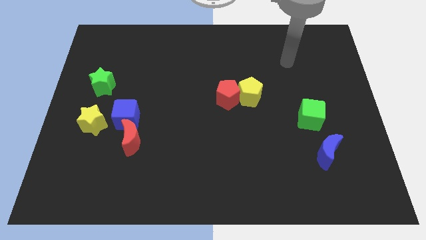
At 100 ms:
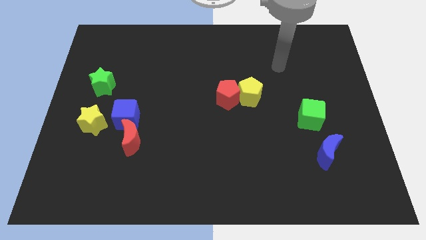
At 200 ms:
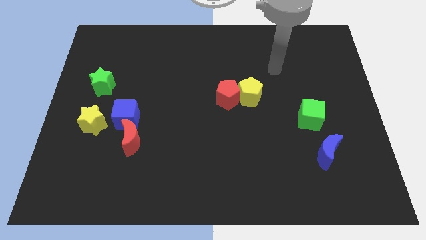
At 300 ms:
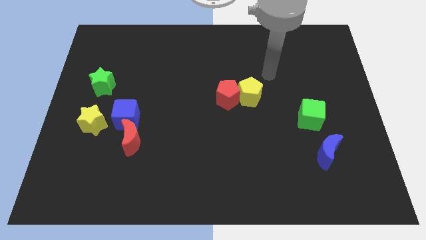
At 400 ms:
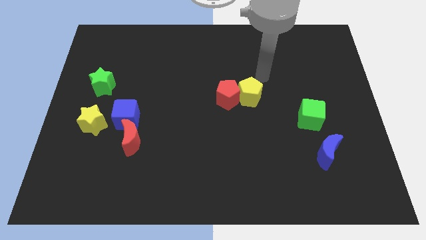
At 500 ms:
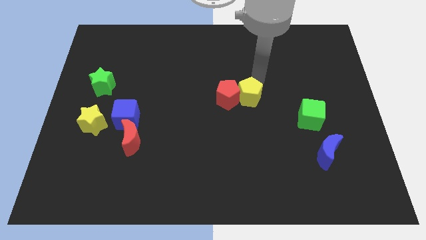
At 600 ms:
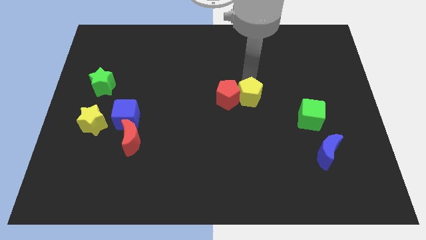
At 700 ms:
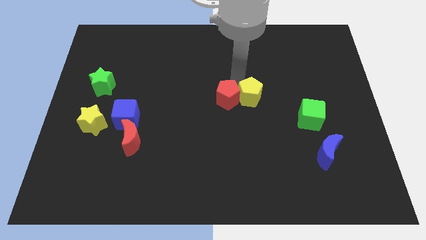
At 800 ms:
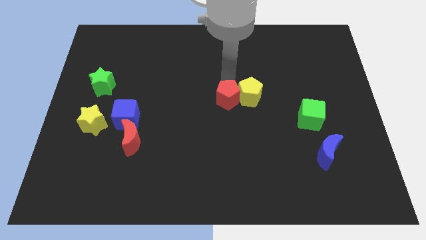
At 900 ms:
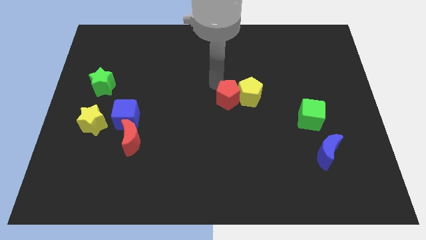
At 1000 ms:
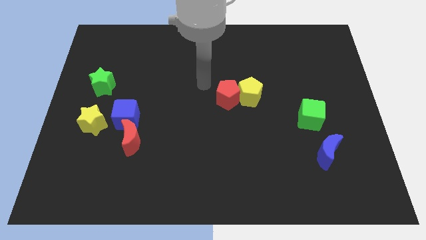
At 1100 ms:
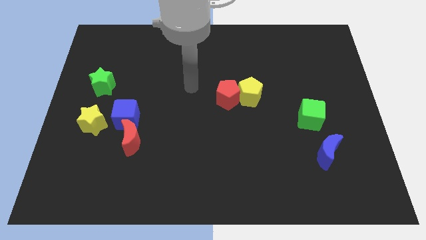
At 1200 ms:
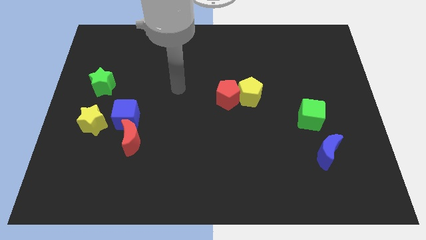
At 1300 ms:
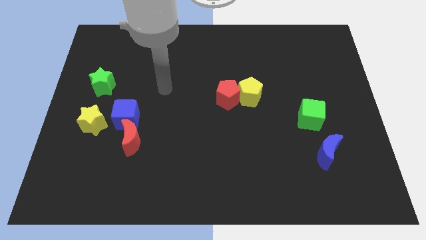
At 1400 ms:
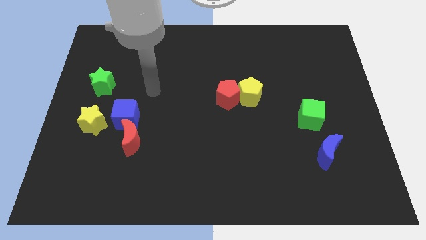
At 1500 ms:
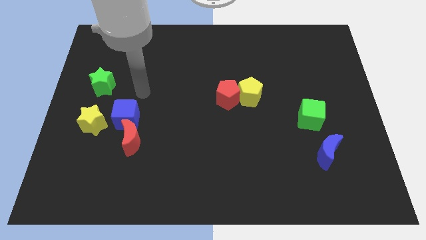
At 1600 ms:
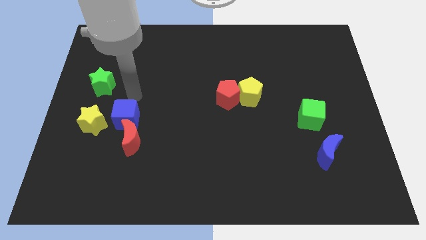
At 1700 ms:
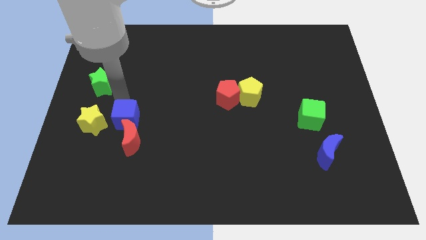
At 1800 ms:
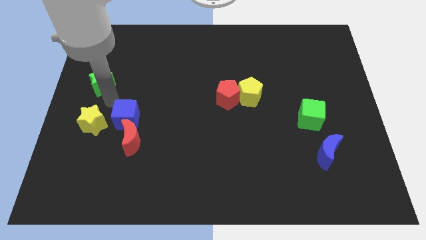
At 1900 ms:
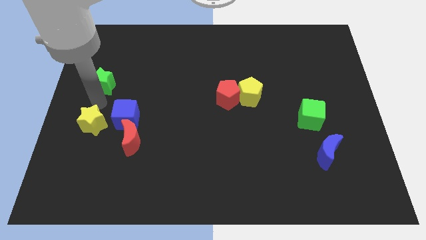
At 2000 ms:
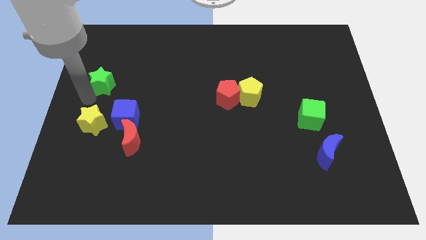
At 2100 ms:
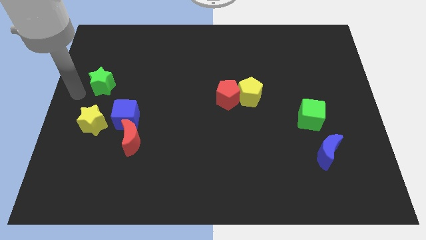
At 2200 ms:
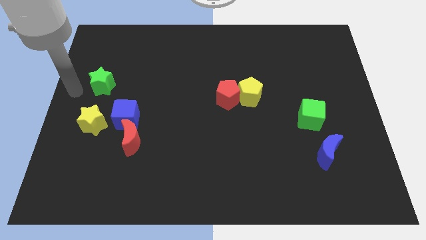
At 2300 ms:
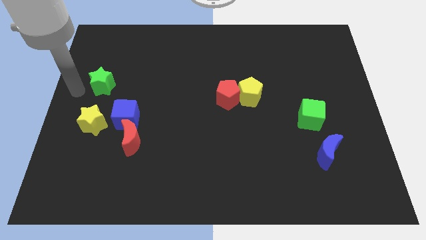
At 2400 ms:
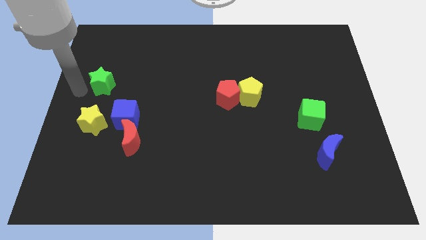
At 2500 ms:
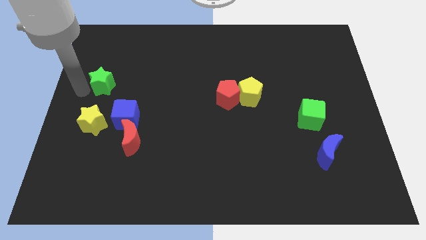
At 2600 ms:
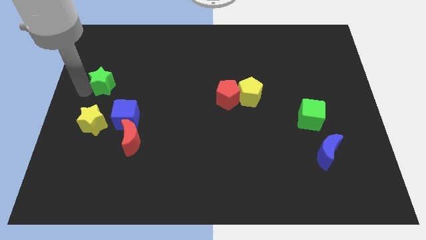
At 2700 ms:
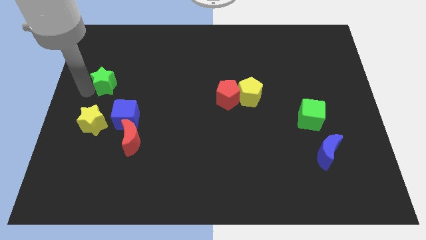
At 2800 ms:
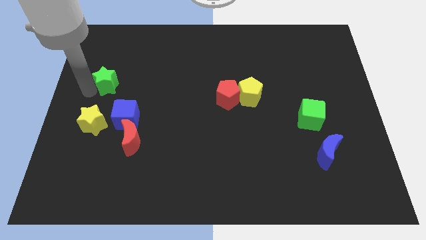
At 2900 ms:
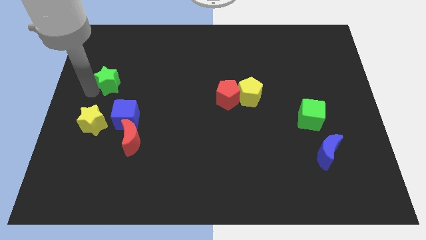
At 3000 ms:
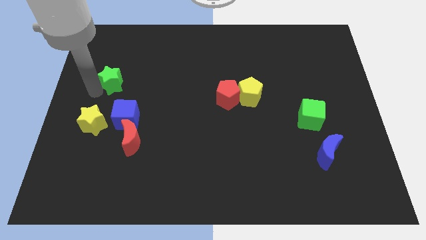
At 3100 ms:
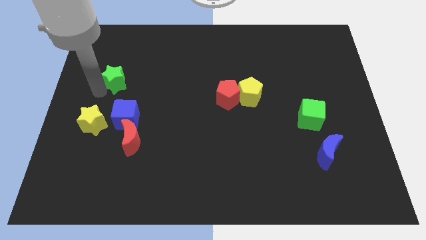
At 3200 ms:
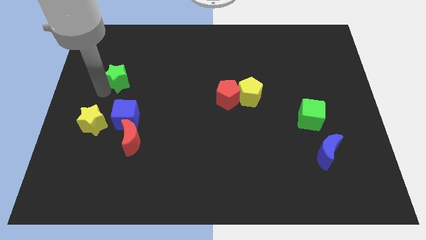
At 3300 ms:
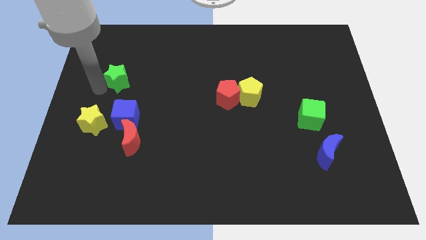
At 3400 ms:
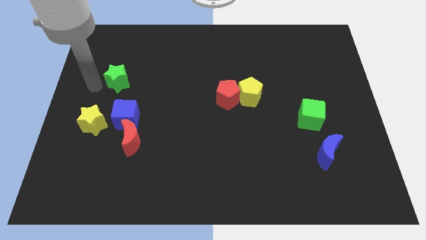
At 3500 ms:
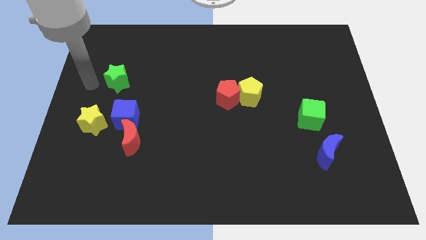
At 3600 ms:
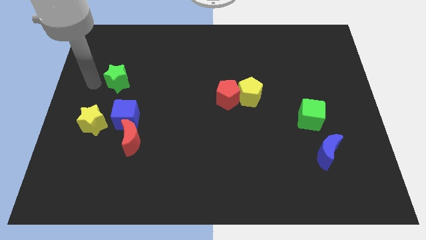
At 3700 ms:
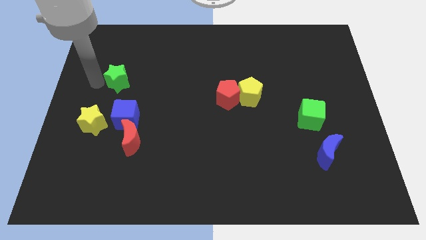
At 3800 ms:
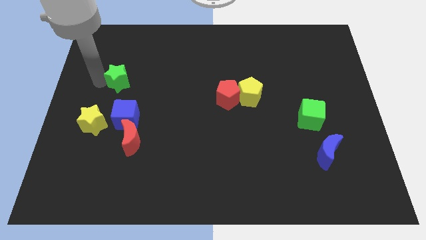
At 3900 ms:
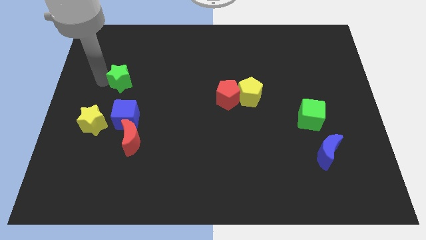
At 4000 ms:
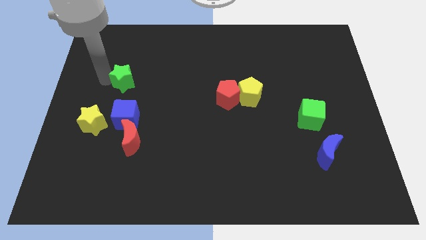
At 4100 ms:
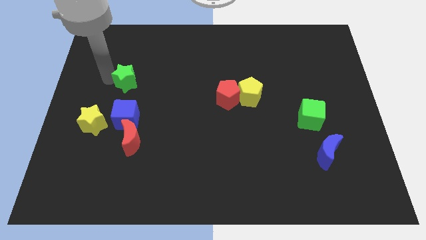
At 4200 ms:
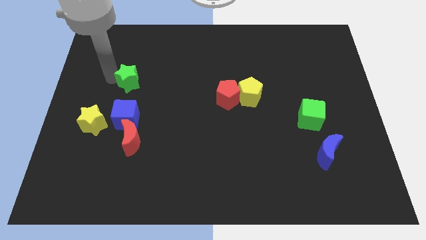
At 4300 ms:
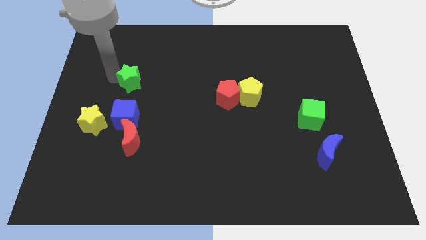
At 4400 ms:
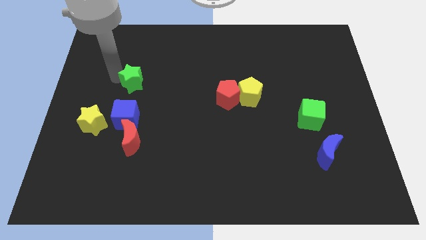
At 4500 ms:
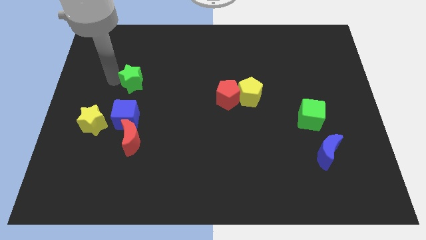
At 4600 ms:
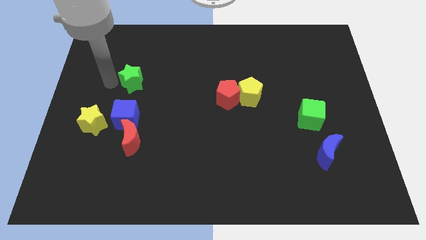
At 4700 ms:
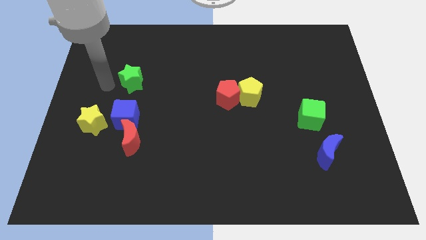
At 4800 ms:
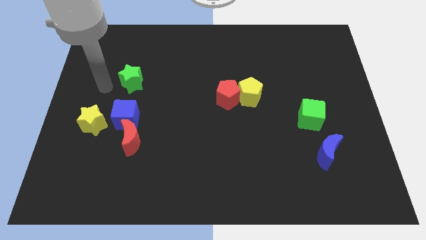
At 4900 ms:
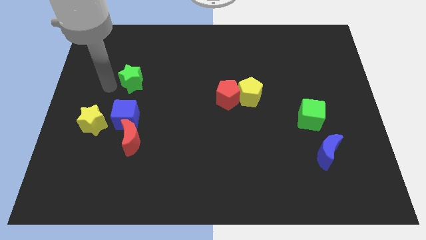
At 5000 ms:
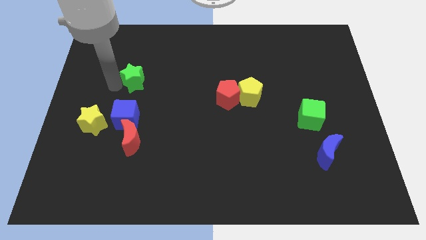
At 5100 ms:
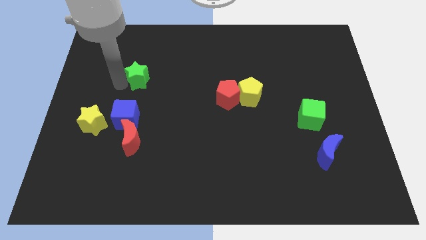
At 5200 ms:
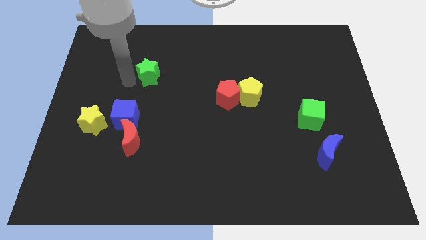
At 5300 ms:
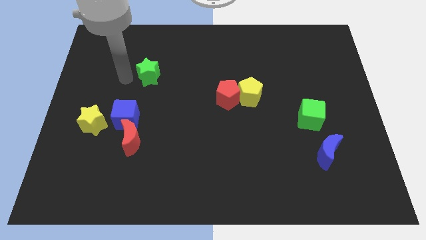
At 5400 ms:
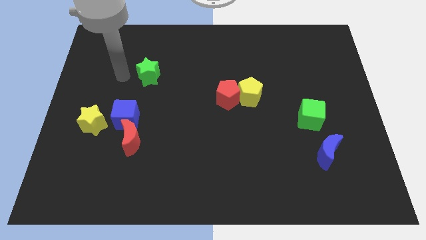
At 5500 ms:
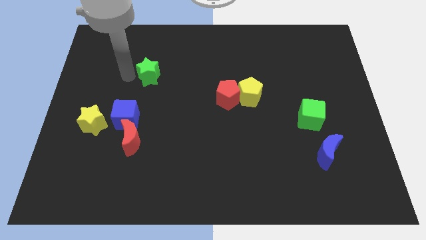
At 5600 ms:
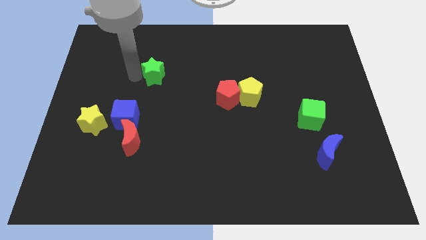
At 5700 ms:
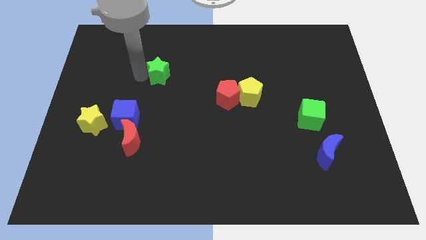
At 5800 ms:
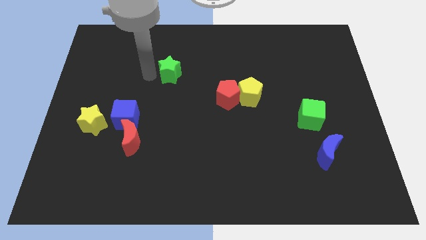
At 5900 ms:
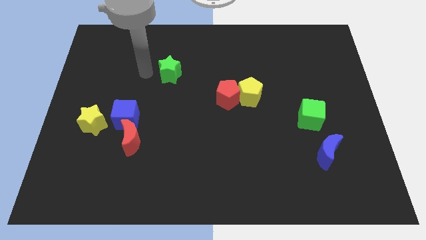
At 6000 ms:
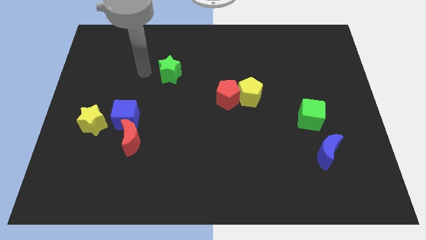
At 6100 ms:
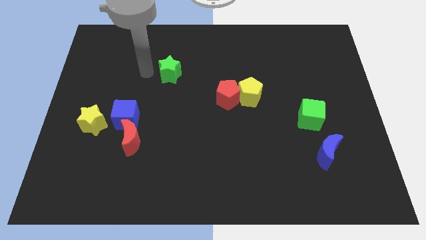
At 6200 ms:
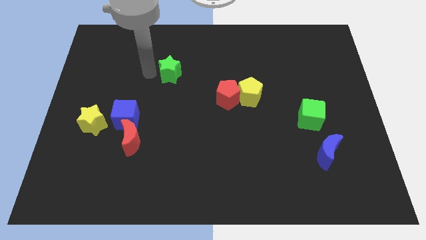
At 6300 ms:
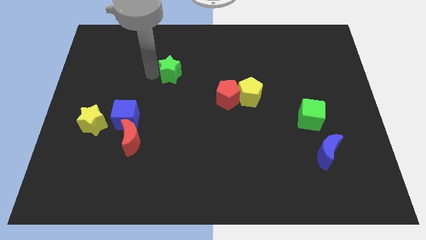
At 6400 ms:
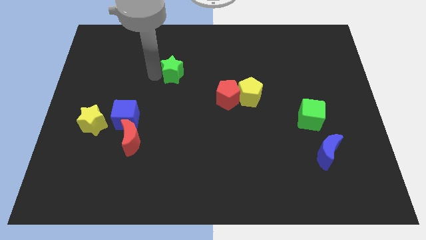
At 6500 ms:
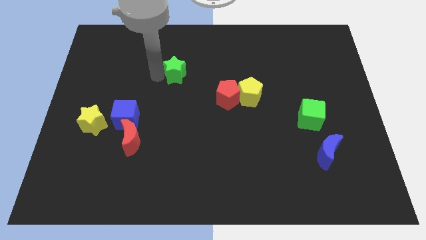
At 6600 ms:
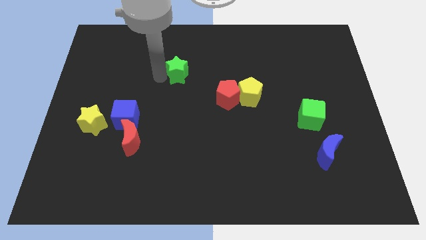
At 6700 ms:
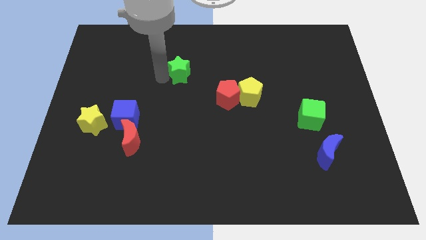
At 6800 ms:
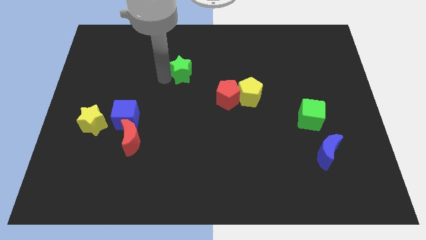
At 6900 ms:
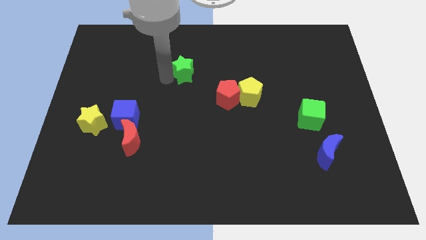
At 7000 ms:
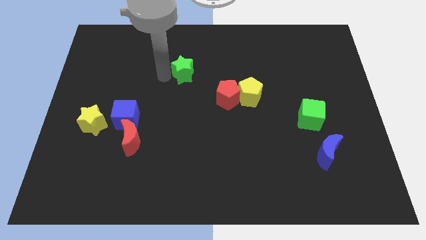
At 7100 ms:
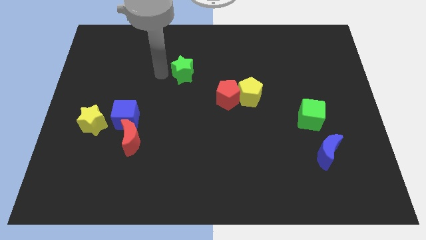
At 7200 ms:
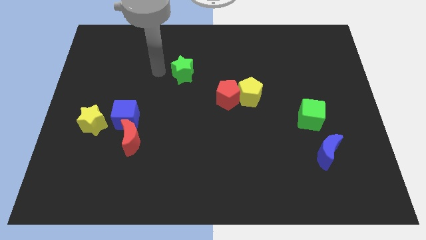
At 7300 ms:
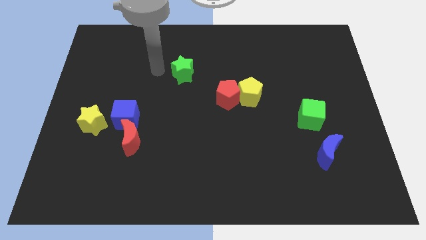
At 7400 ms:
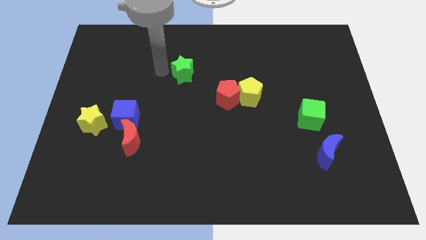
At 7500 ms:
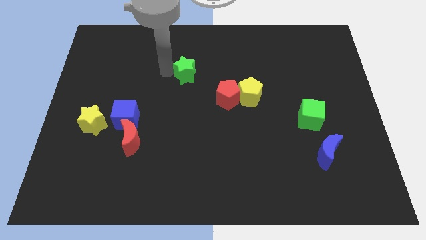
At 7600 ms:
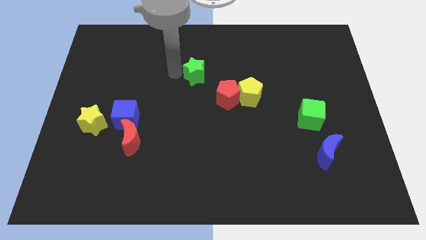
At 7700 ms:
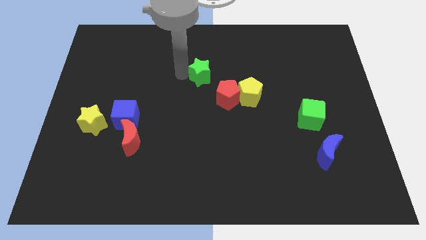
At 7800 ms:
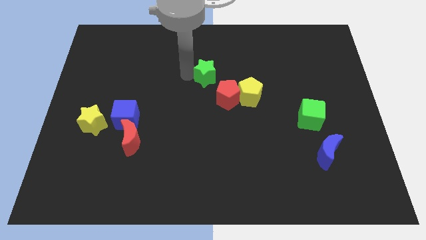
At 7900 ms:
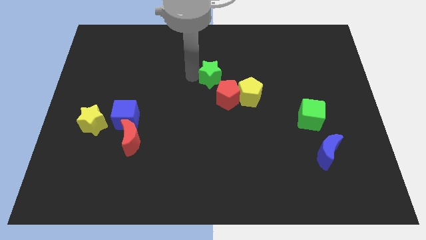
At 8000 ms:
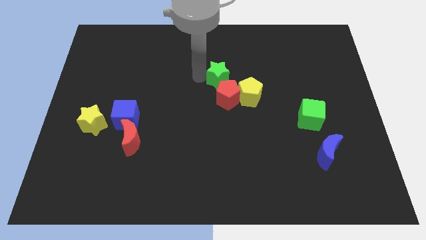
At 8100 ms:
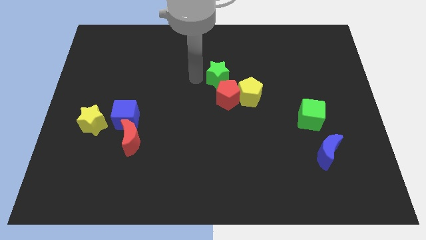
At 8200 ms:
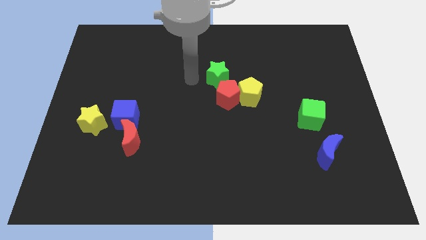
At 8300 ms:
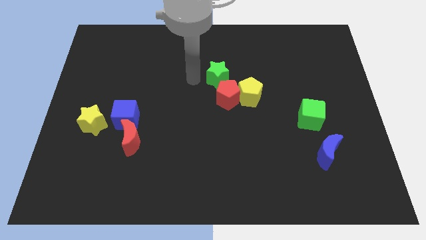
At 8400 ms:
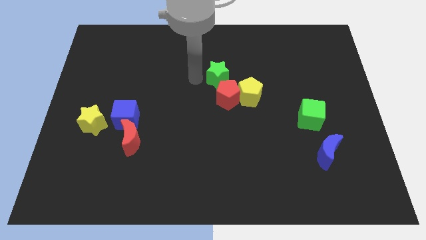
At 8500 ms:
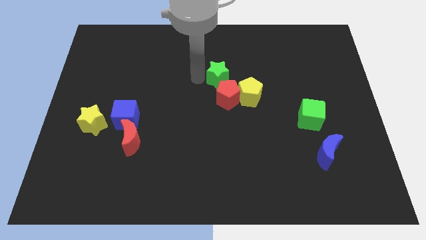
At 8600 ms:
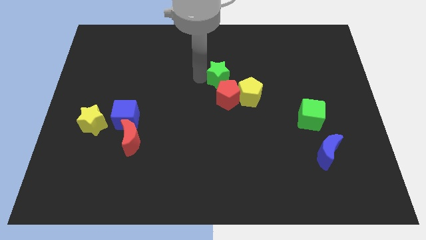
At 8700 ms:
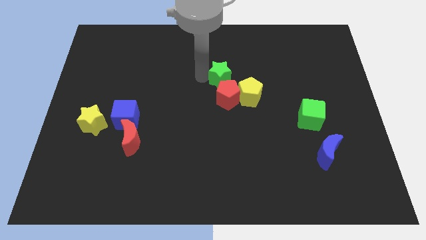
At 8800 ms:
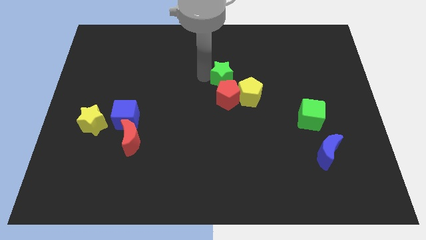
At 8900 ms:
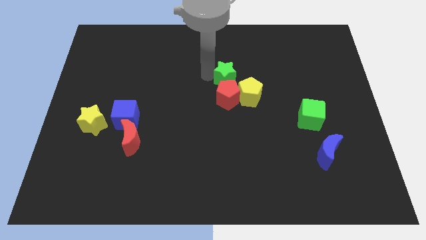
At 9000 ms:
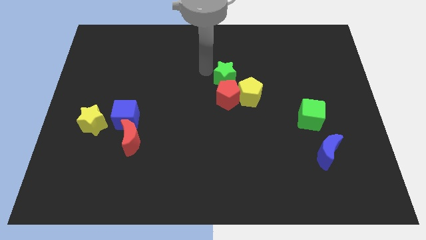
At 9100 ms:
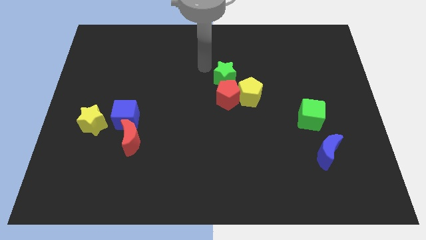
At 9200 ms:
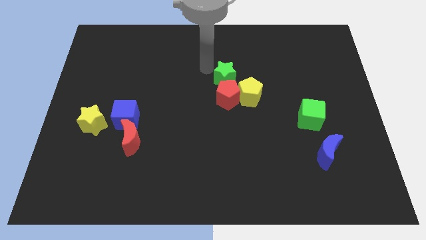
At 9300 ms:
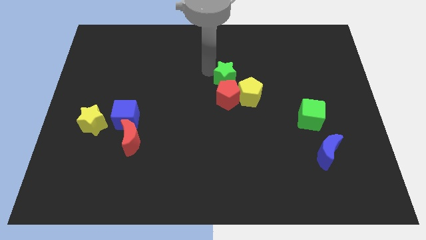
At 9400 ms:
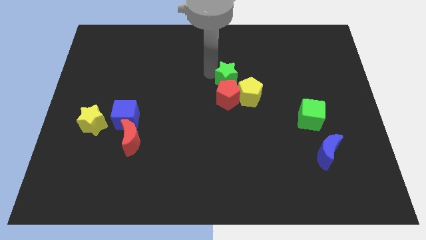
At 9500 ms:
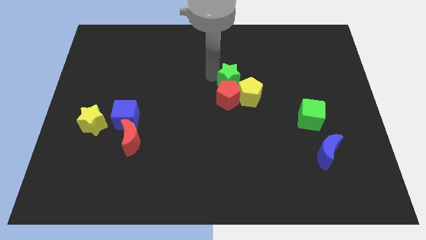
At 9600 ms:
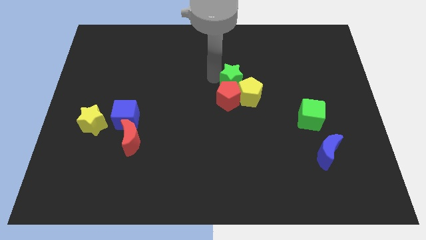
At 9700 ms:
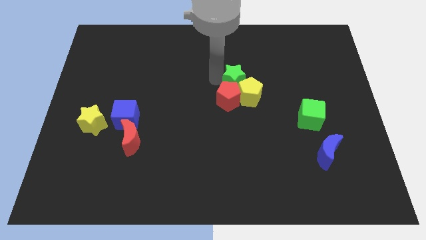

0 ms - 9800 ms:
move the green star close to the yellow pentagon
